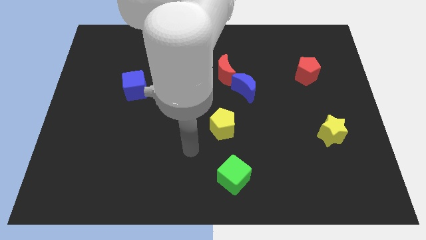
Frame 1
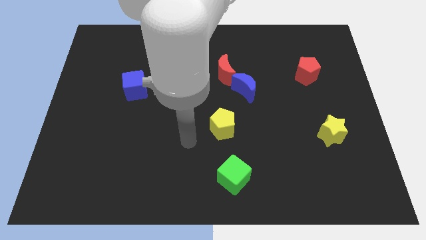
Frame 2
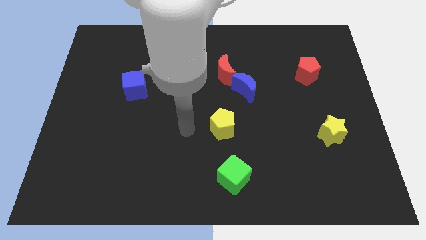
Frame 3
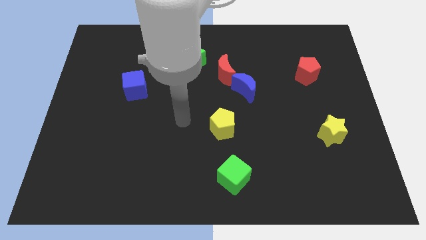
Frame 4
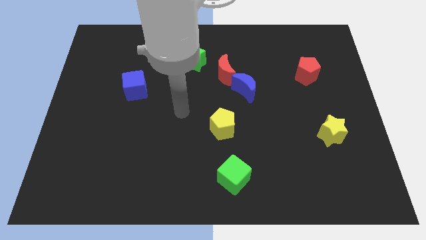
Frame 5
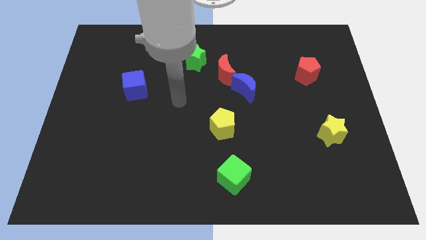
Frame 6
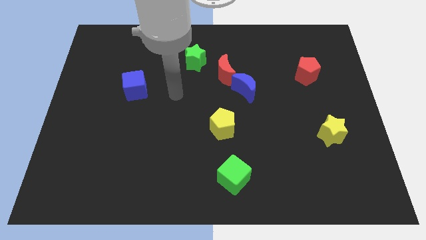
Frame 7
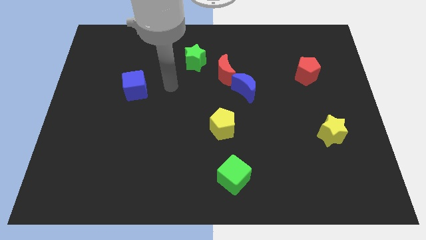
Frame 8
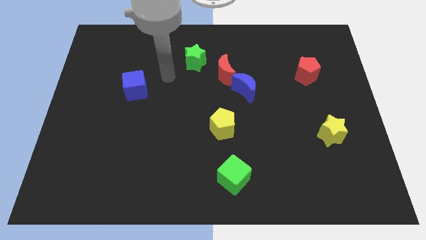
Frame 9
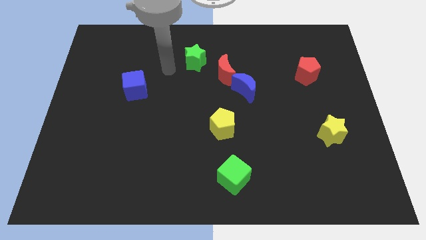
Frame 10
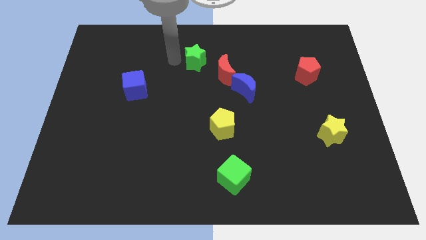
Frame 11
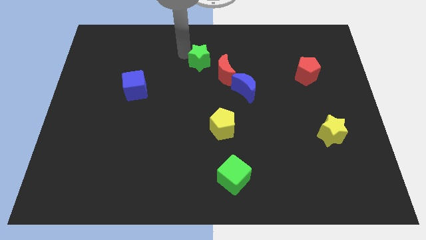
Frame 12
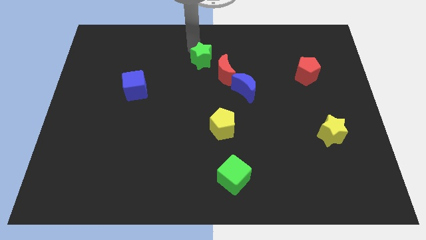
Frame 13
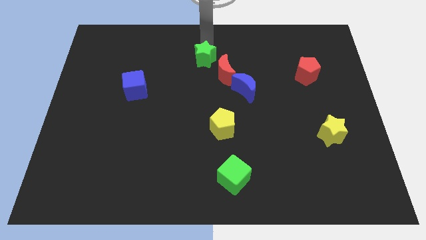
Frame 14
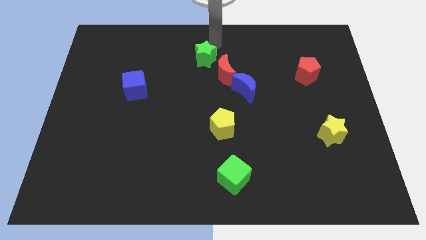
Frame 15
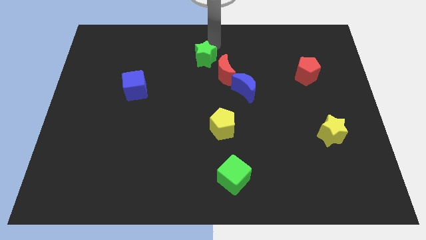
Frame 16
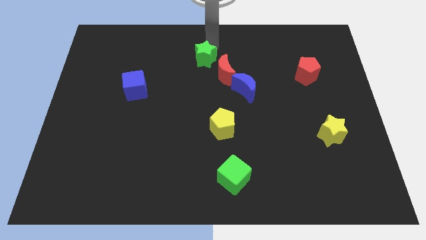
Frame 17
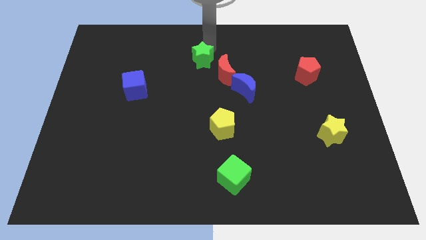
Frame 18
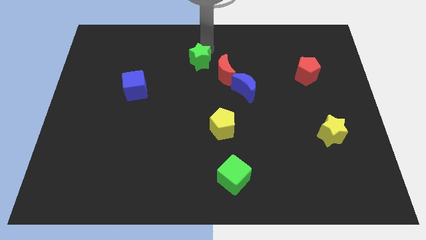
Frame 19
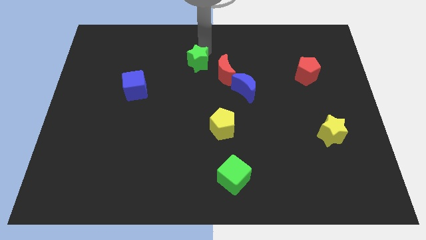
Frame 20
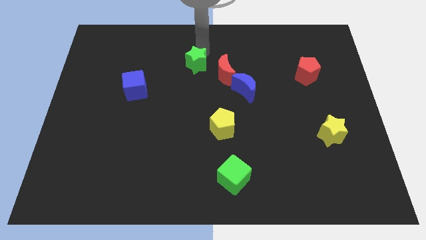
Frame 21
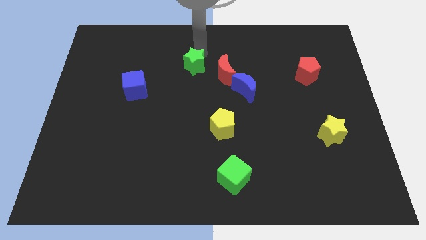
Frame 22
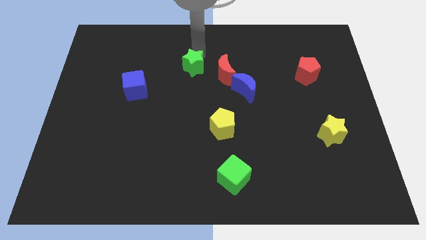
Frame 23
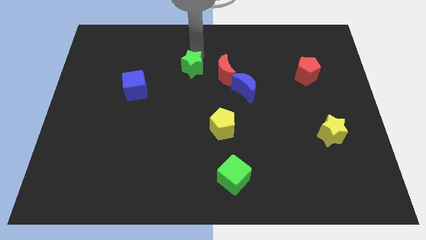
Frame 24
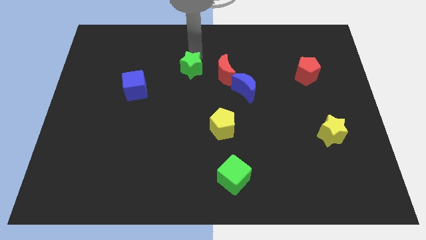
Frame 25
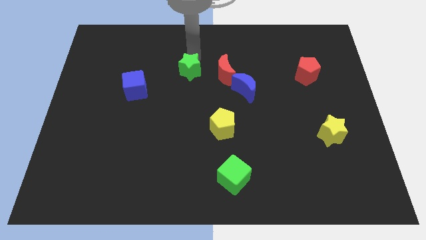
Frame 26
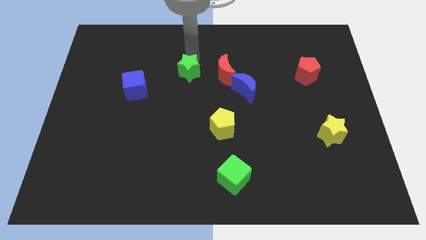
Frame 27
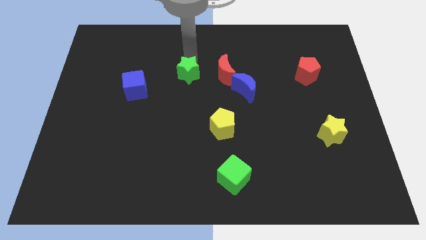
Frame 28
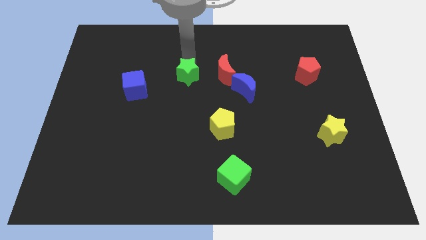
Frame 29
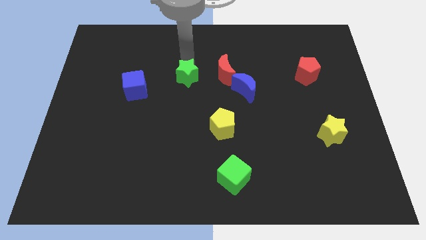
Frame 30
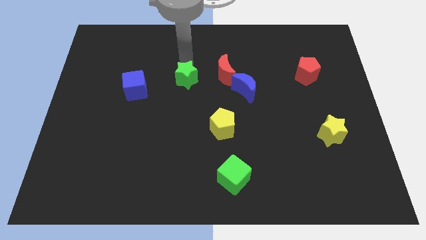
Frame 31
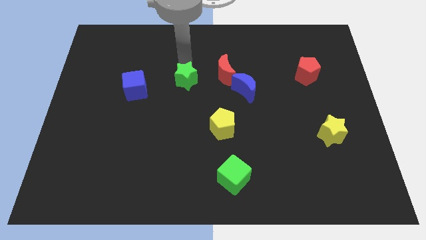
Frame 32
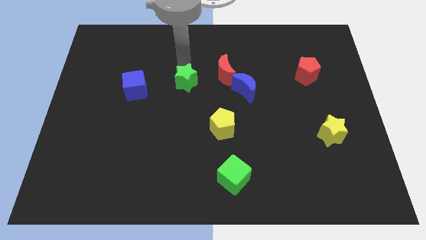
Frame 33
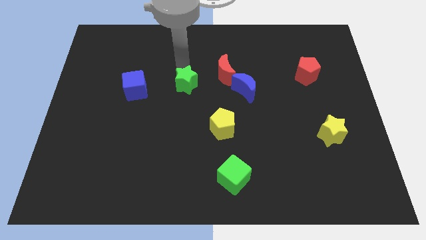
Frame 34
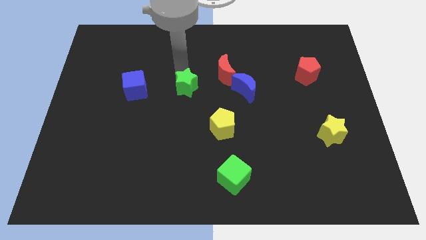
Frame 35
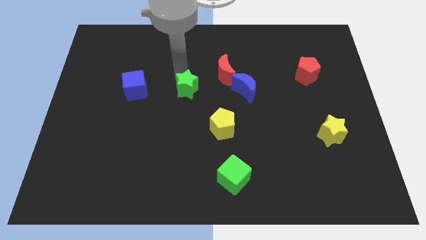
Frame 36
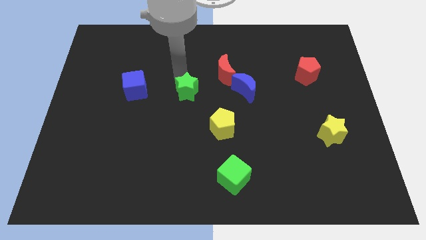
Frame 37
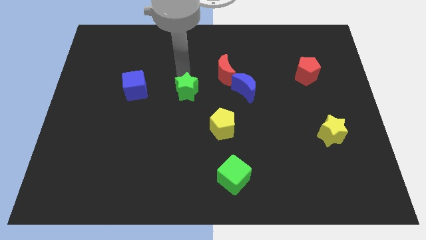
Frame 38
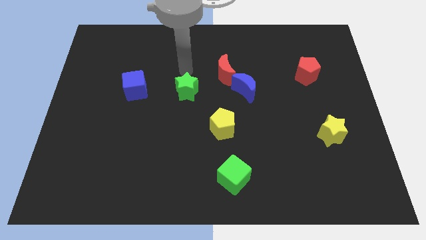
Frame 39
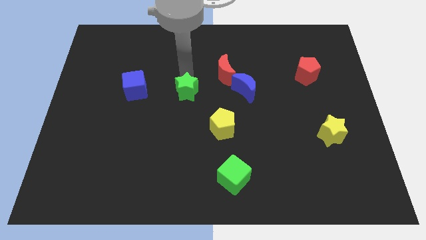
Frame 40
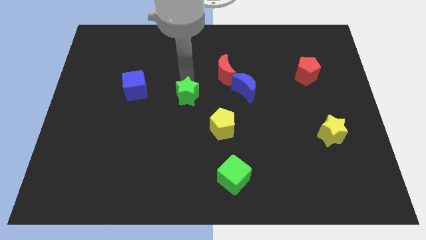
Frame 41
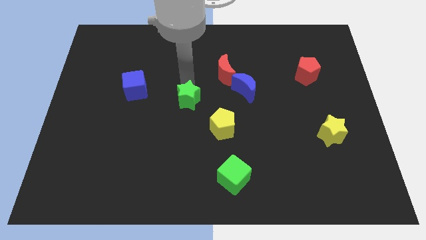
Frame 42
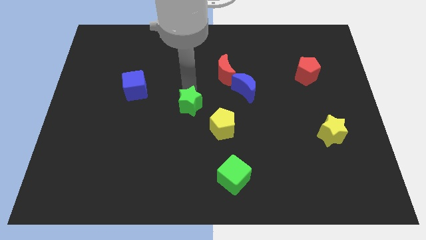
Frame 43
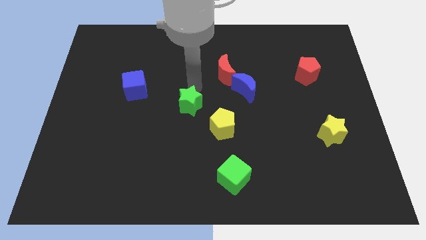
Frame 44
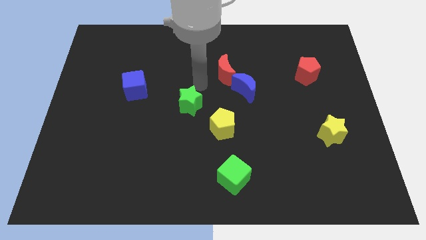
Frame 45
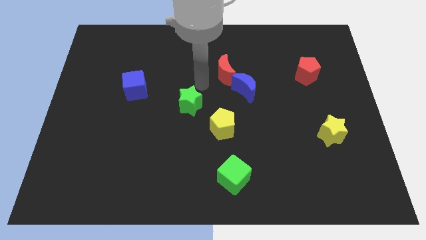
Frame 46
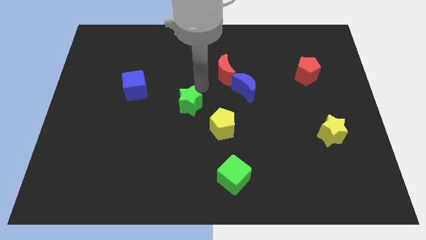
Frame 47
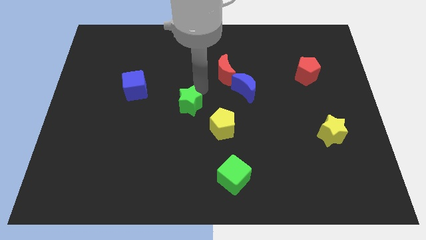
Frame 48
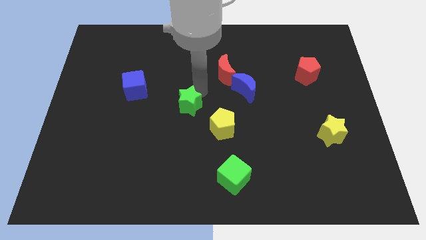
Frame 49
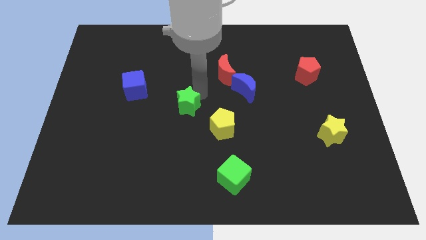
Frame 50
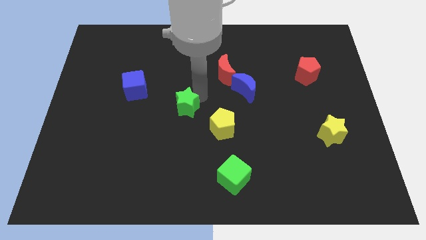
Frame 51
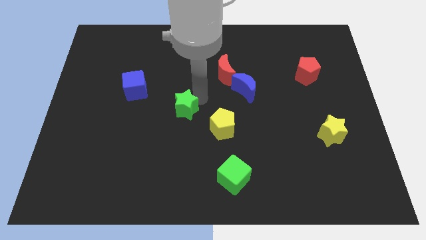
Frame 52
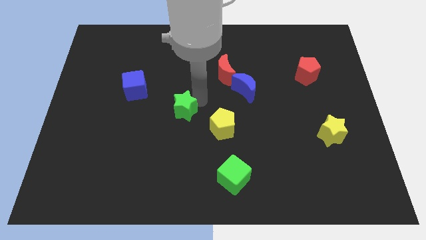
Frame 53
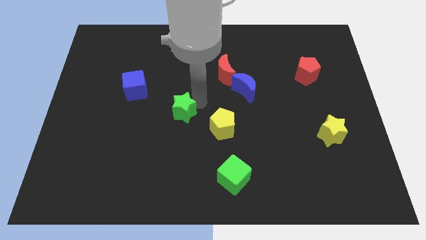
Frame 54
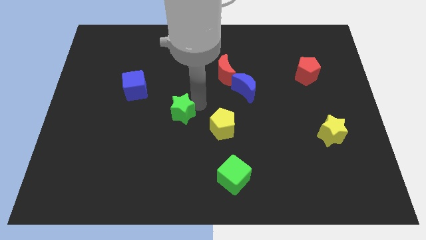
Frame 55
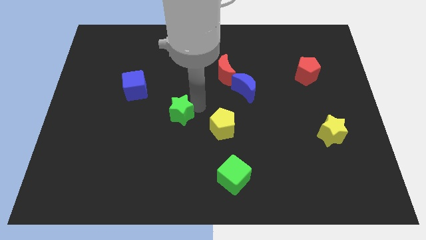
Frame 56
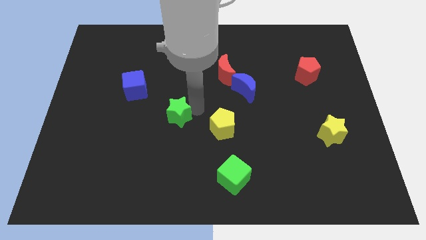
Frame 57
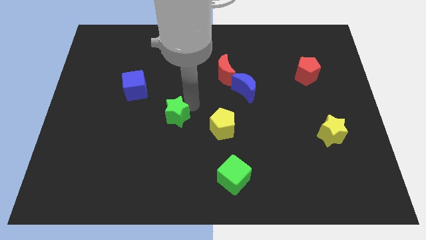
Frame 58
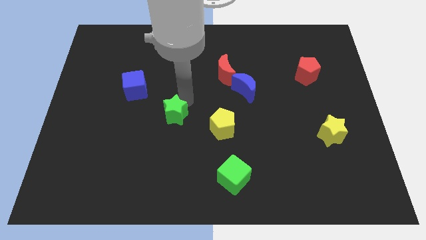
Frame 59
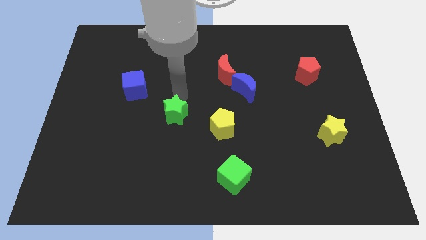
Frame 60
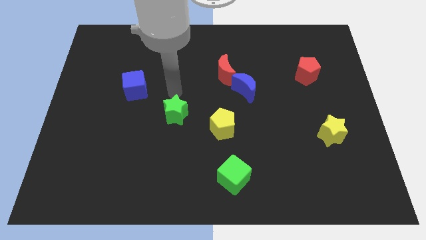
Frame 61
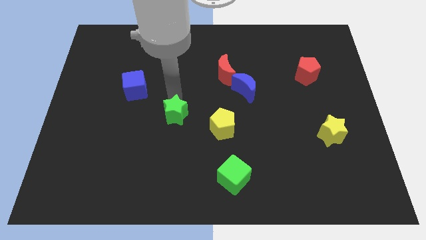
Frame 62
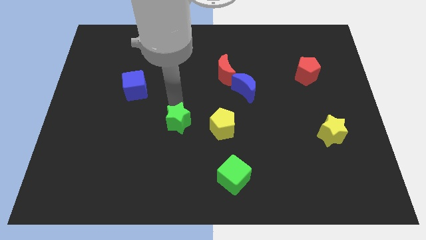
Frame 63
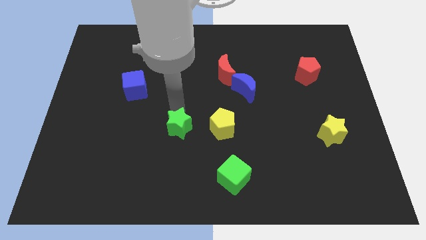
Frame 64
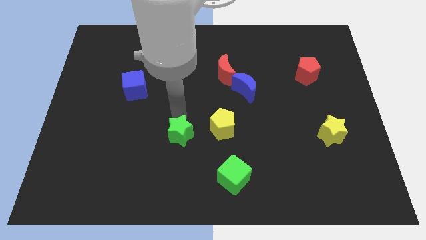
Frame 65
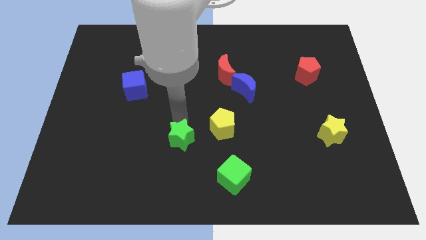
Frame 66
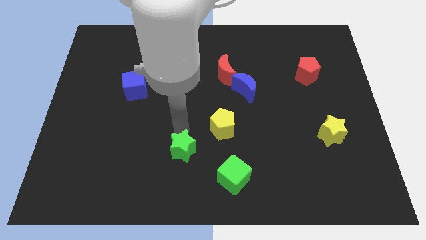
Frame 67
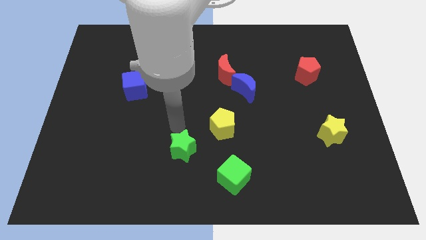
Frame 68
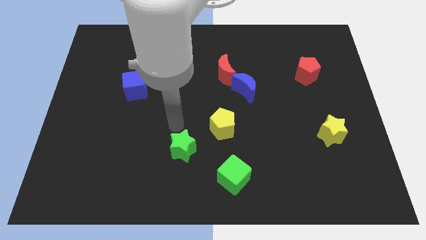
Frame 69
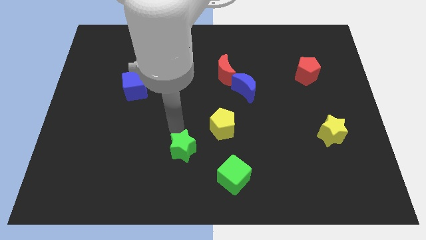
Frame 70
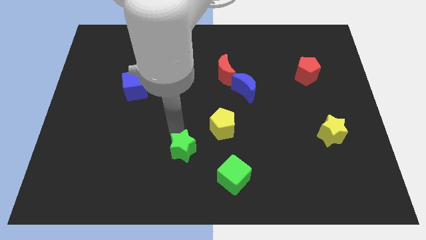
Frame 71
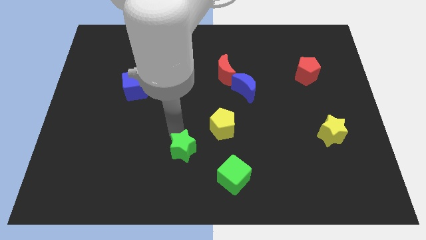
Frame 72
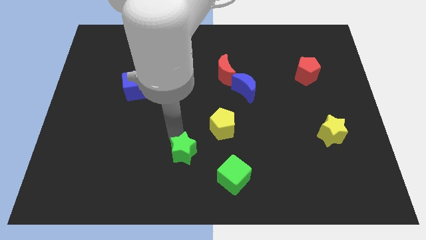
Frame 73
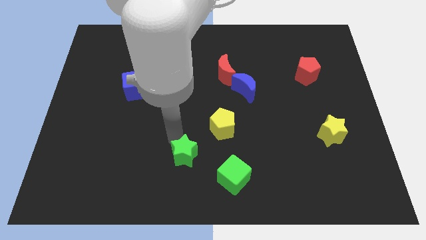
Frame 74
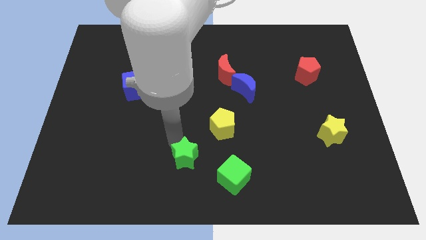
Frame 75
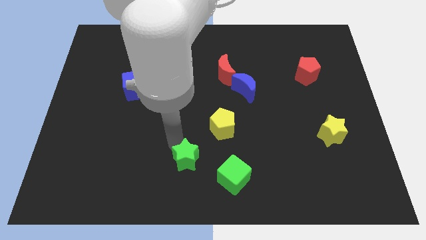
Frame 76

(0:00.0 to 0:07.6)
slide the green star to the bottom side
